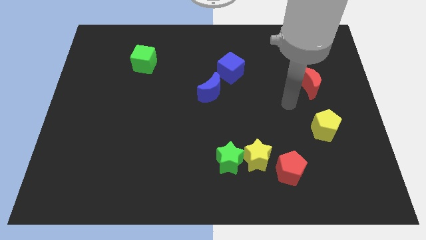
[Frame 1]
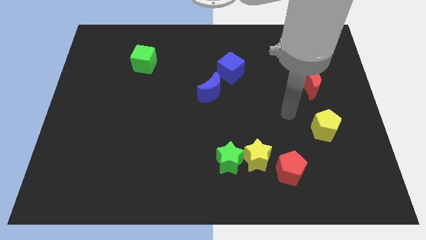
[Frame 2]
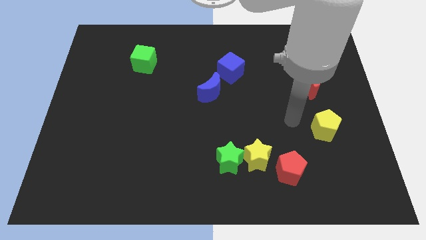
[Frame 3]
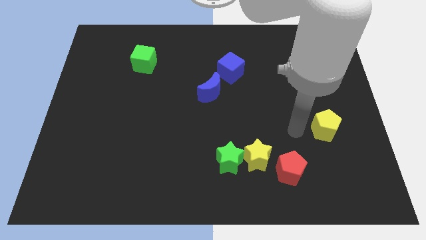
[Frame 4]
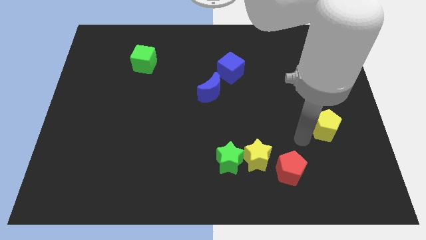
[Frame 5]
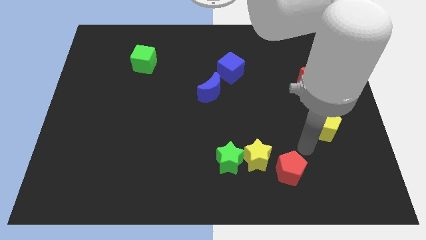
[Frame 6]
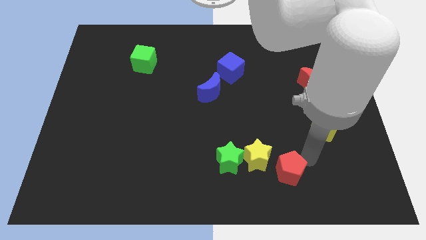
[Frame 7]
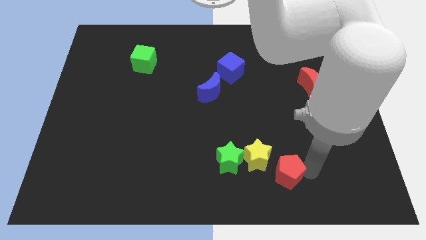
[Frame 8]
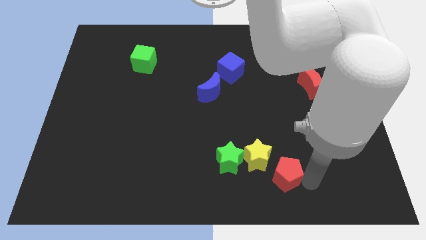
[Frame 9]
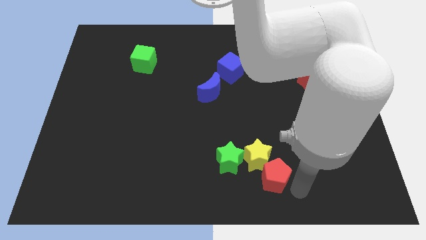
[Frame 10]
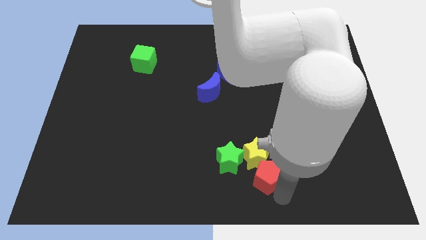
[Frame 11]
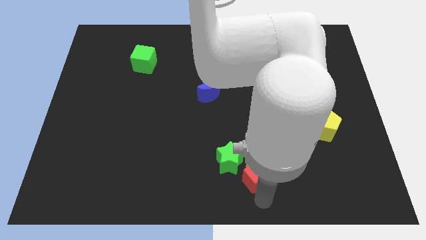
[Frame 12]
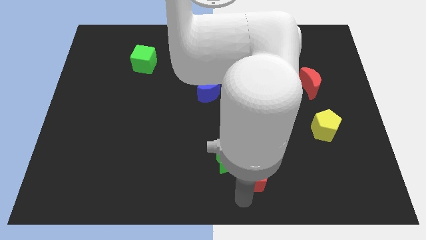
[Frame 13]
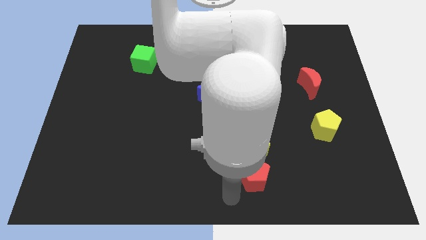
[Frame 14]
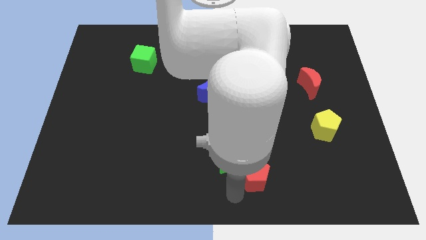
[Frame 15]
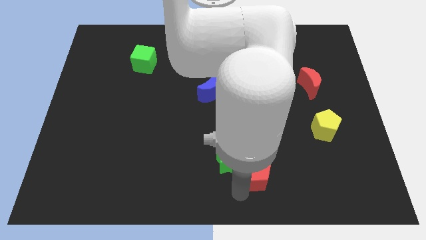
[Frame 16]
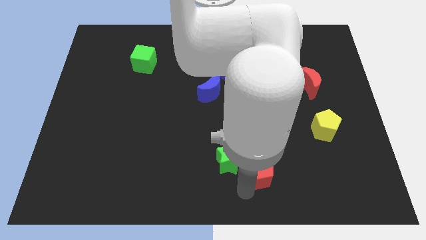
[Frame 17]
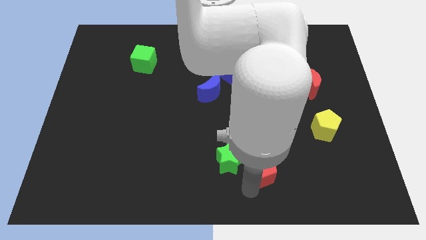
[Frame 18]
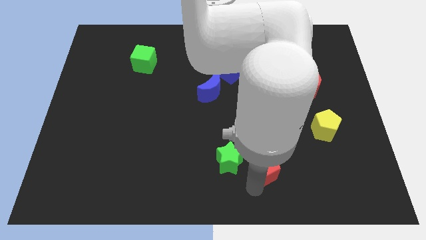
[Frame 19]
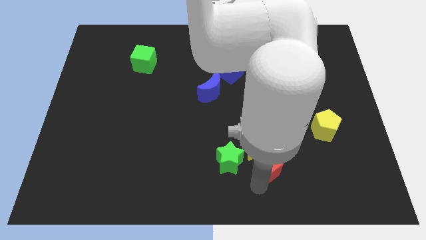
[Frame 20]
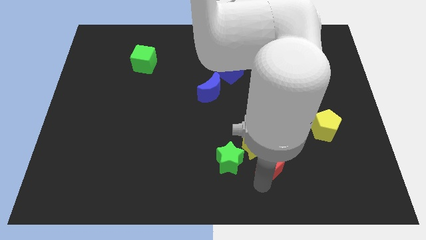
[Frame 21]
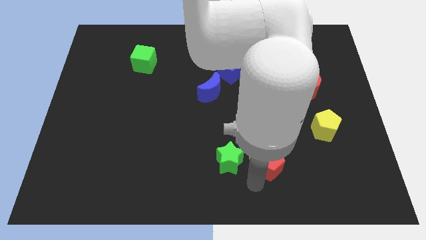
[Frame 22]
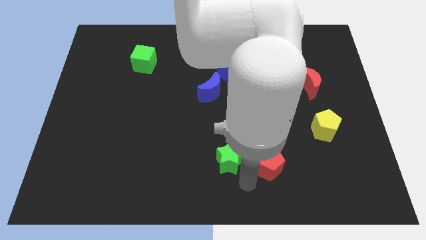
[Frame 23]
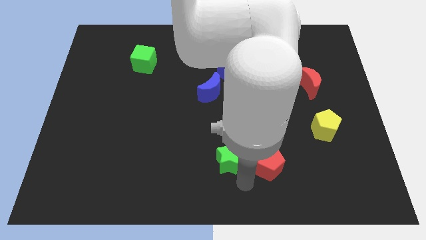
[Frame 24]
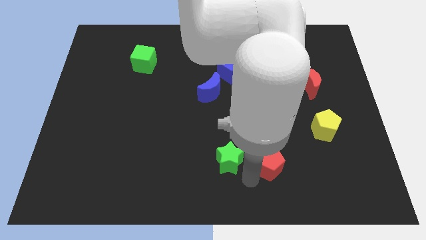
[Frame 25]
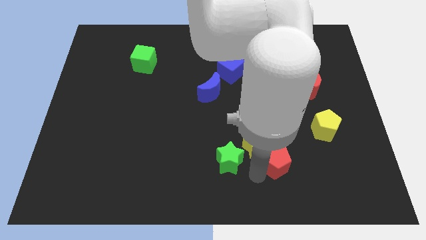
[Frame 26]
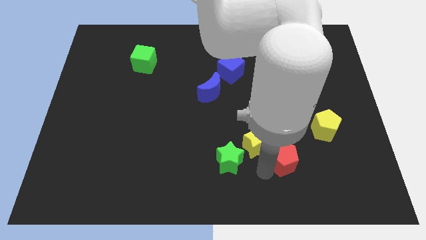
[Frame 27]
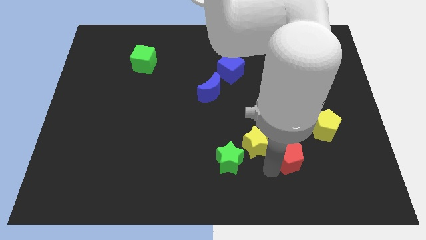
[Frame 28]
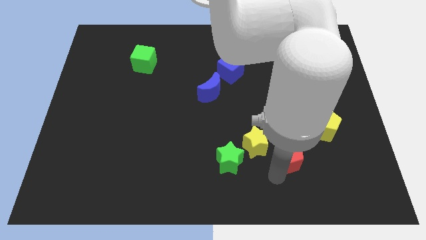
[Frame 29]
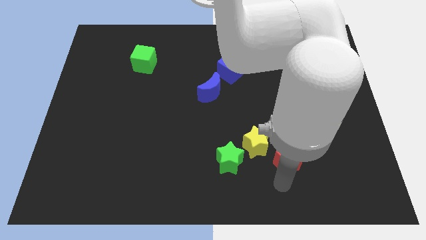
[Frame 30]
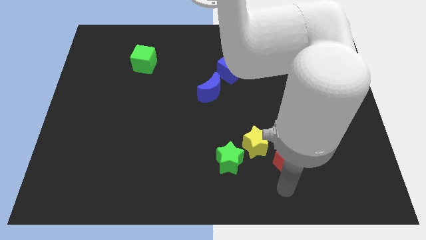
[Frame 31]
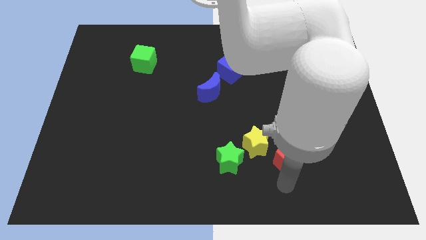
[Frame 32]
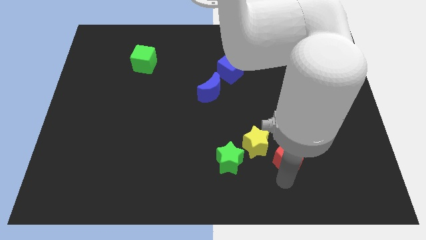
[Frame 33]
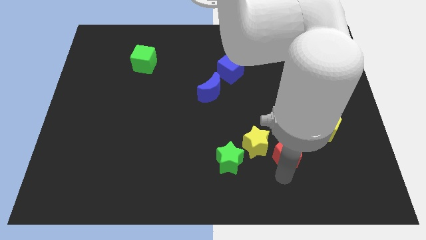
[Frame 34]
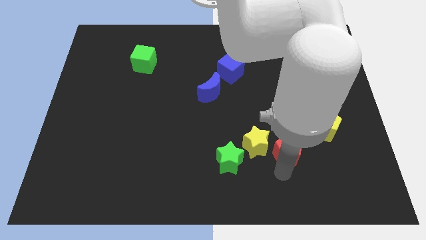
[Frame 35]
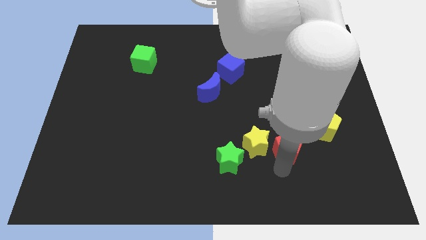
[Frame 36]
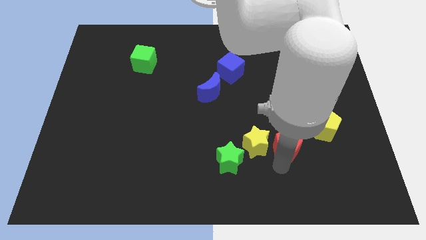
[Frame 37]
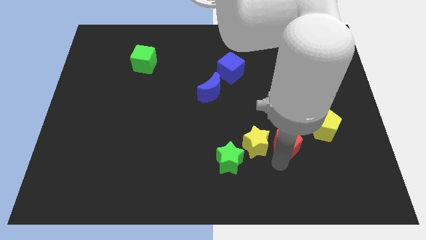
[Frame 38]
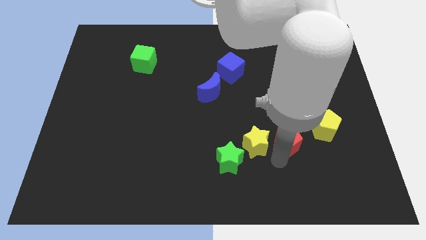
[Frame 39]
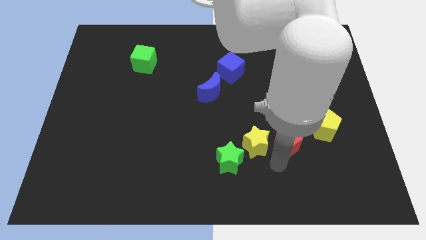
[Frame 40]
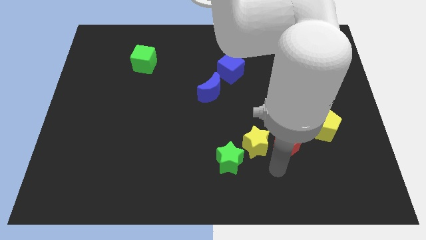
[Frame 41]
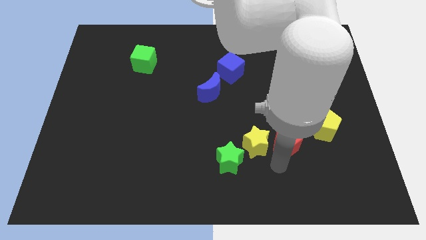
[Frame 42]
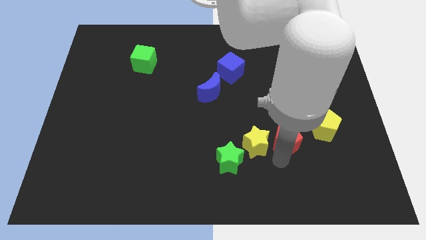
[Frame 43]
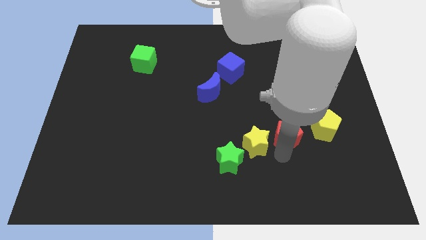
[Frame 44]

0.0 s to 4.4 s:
slide the red pentagon somewhat up

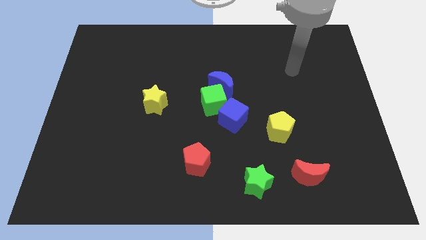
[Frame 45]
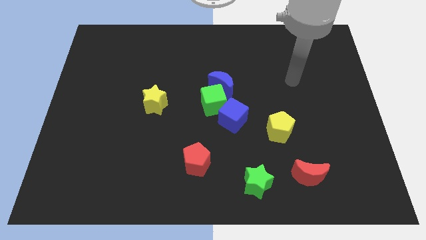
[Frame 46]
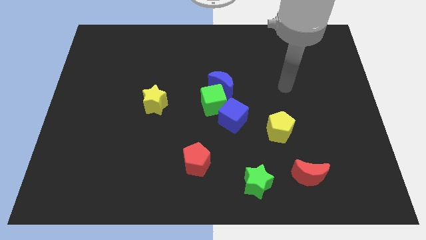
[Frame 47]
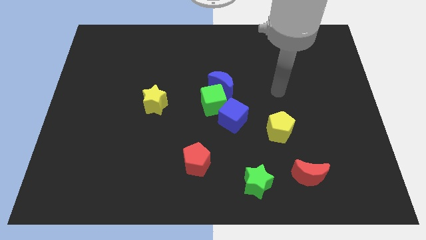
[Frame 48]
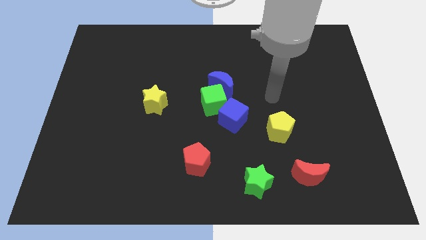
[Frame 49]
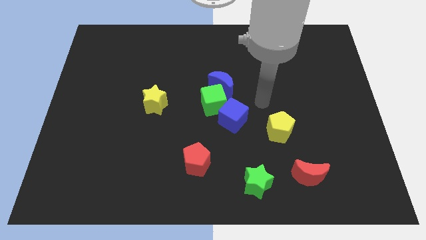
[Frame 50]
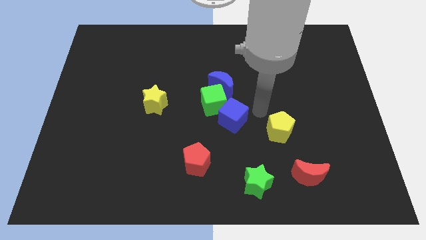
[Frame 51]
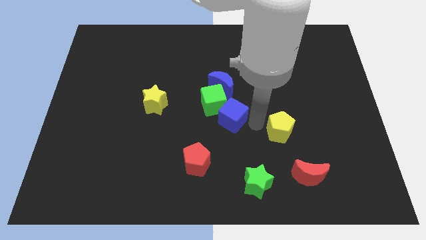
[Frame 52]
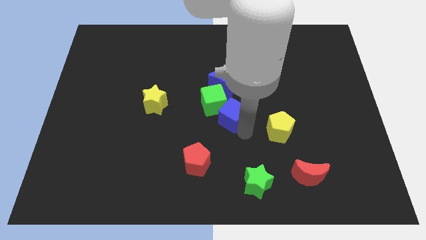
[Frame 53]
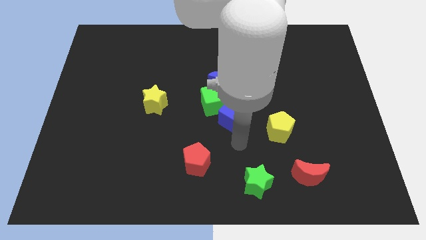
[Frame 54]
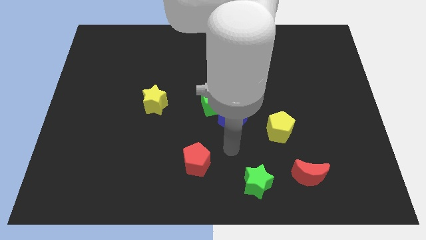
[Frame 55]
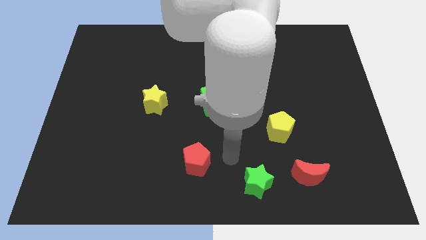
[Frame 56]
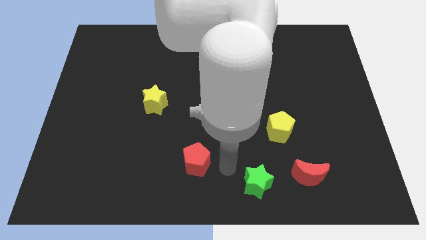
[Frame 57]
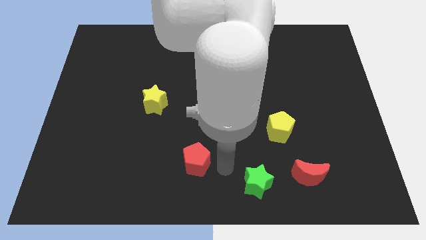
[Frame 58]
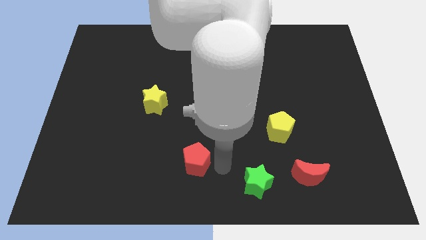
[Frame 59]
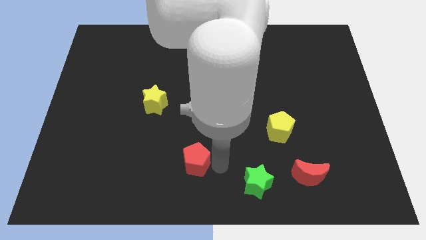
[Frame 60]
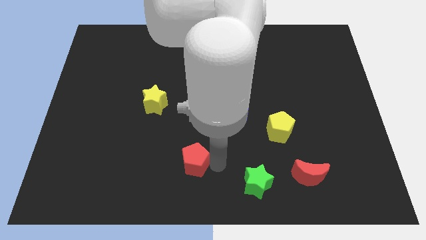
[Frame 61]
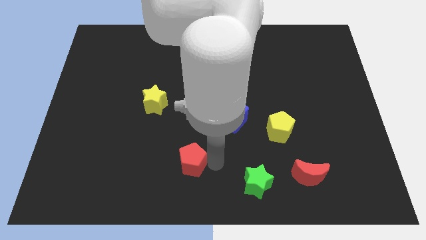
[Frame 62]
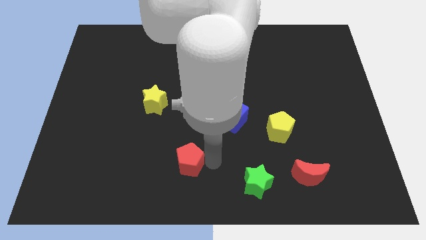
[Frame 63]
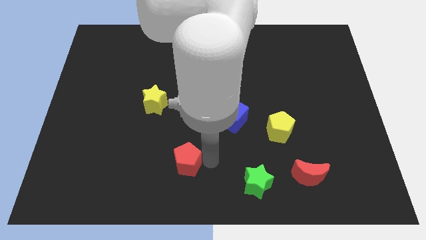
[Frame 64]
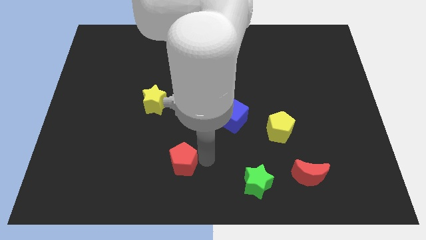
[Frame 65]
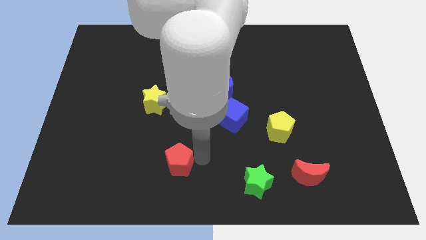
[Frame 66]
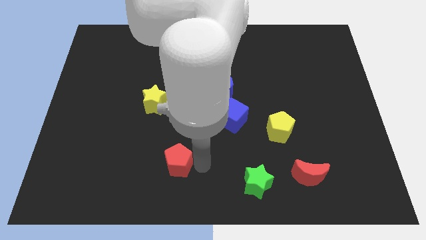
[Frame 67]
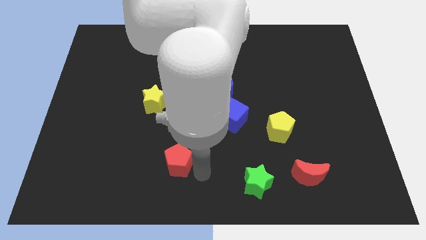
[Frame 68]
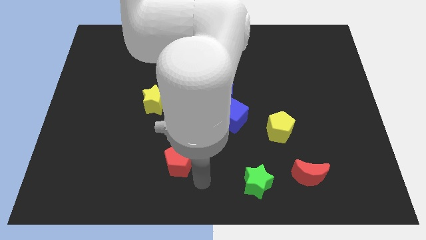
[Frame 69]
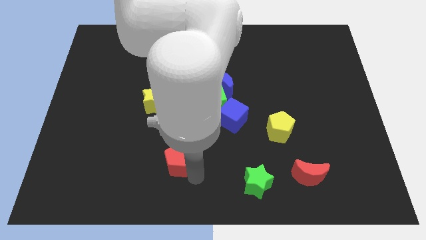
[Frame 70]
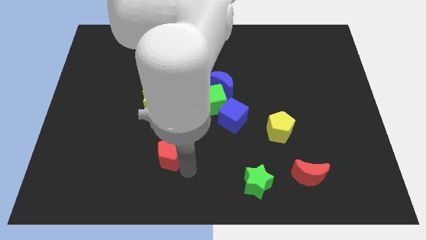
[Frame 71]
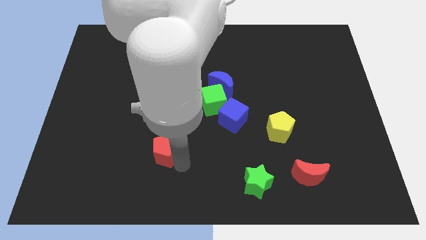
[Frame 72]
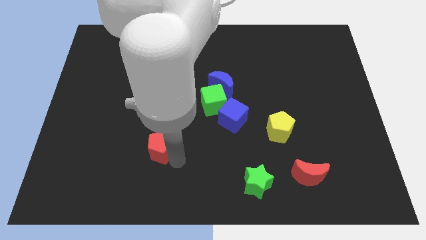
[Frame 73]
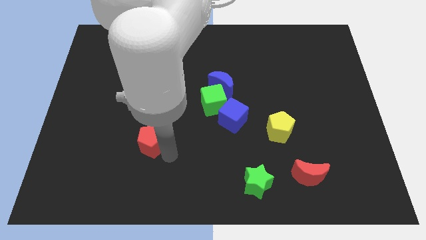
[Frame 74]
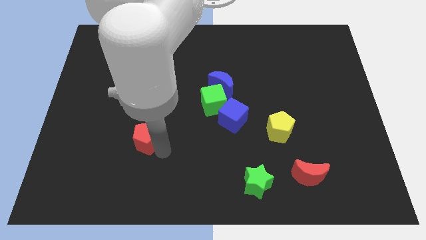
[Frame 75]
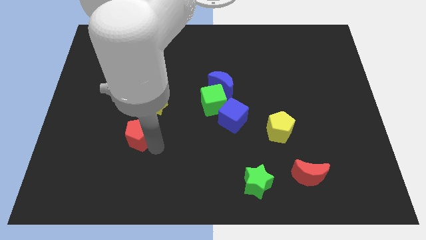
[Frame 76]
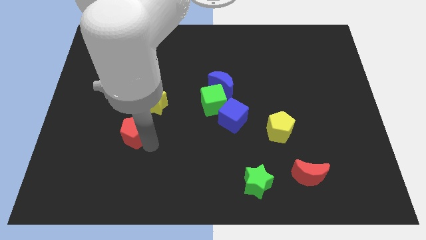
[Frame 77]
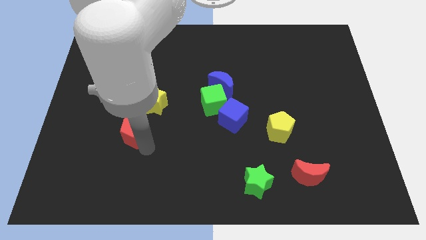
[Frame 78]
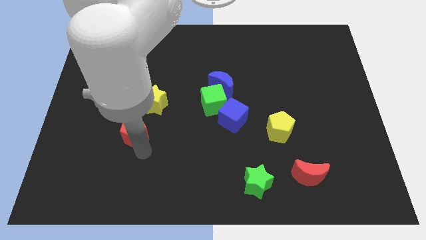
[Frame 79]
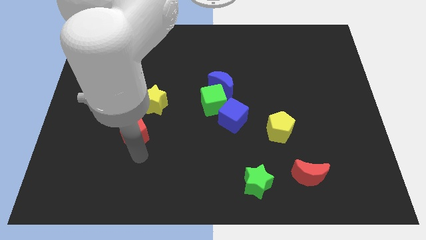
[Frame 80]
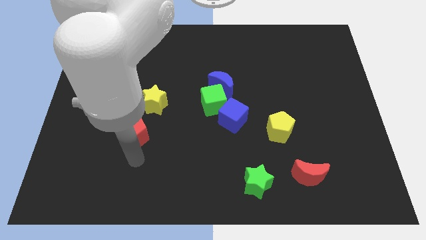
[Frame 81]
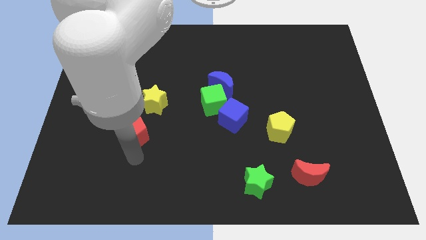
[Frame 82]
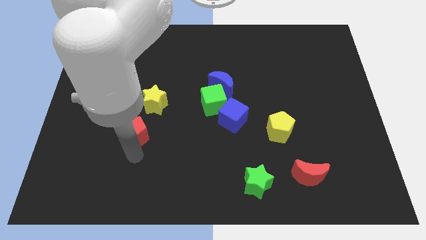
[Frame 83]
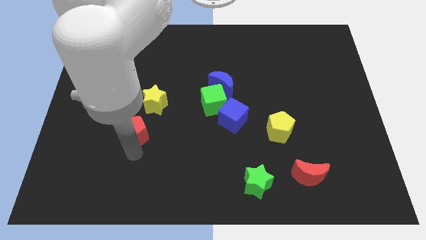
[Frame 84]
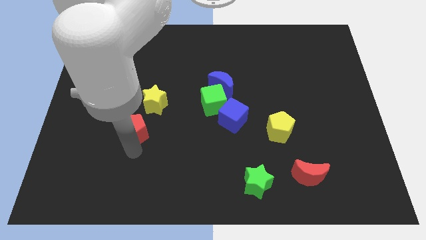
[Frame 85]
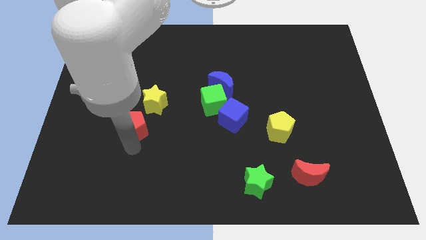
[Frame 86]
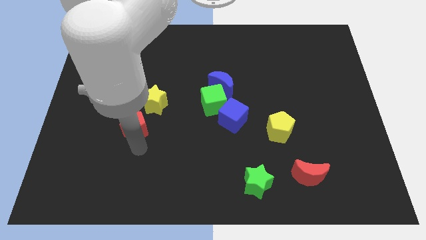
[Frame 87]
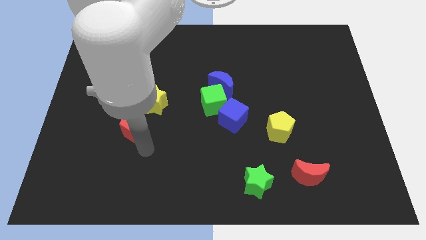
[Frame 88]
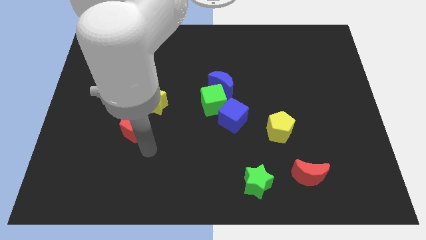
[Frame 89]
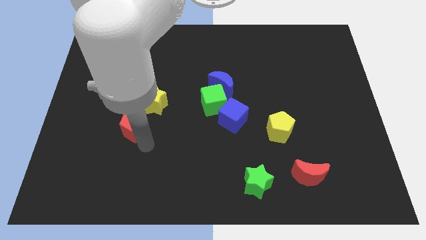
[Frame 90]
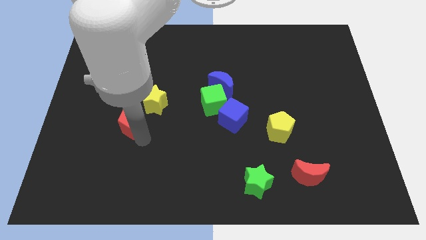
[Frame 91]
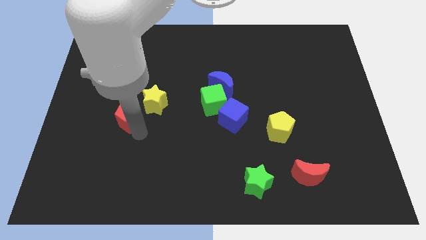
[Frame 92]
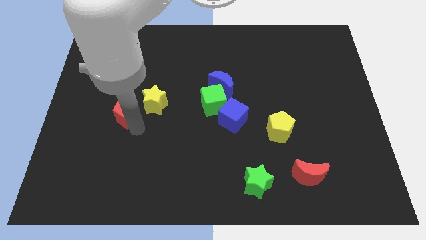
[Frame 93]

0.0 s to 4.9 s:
slide the red pentagon diagonally up and to the left
